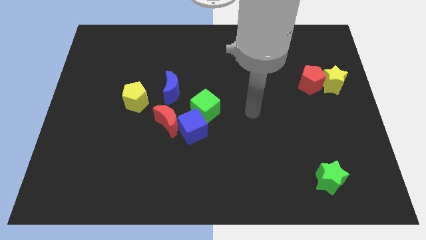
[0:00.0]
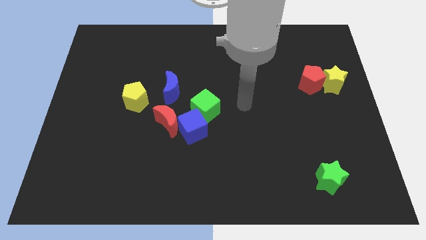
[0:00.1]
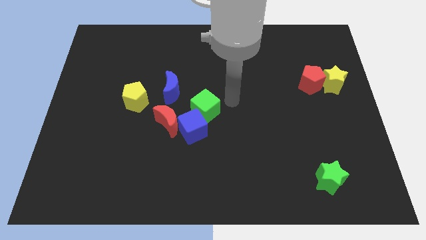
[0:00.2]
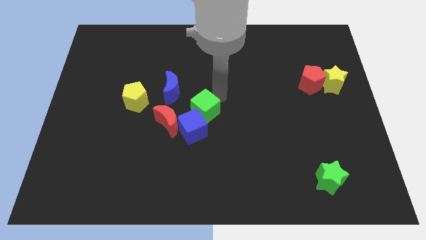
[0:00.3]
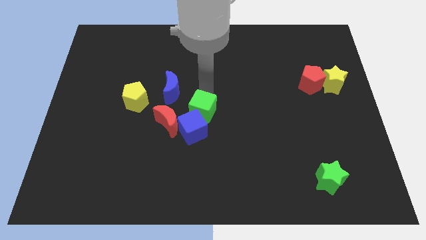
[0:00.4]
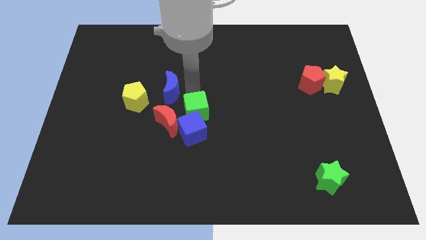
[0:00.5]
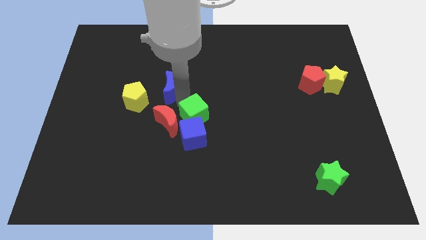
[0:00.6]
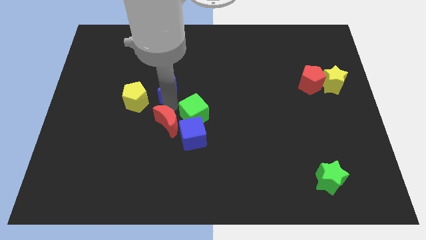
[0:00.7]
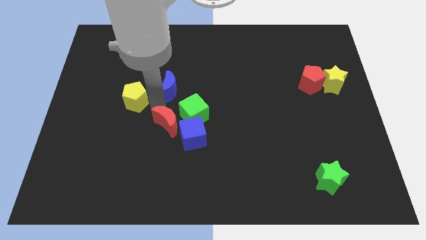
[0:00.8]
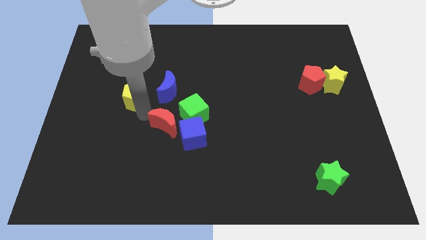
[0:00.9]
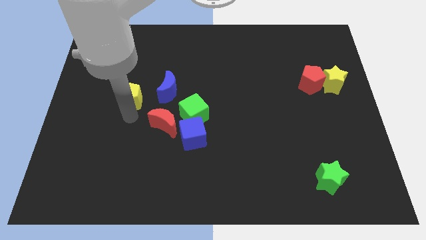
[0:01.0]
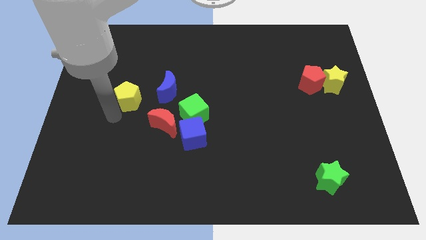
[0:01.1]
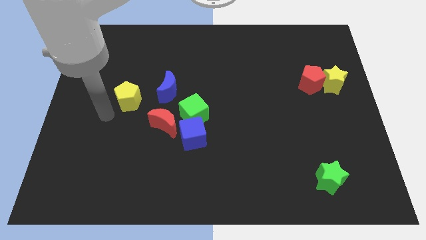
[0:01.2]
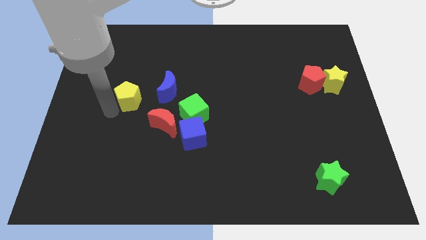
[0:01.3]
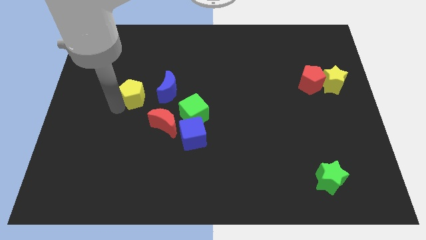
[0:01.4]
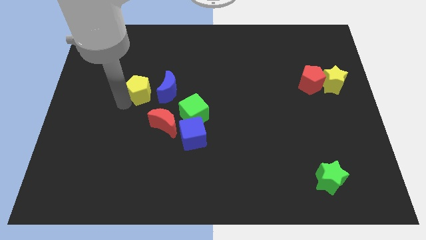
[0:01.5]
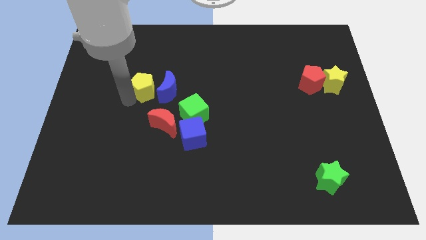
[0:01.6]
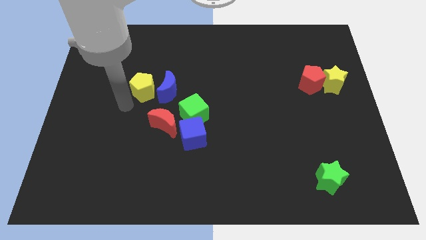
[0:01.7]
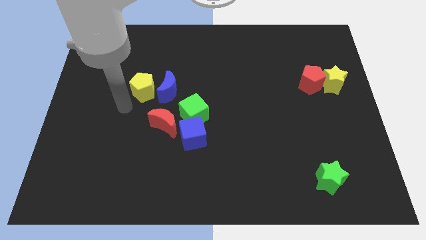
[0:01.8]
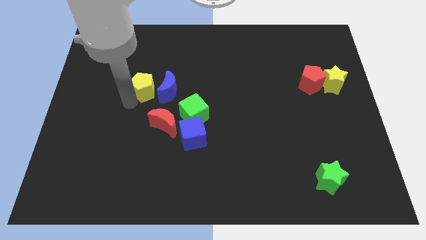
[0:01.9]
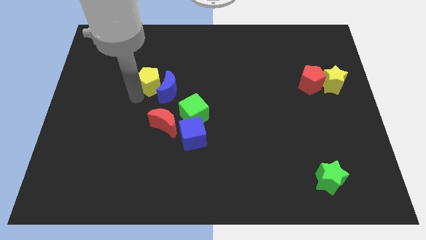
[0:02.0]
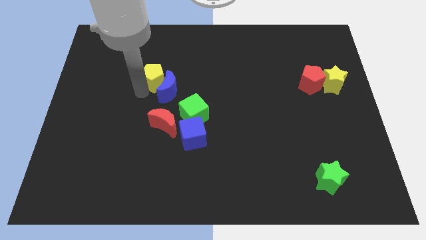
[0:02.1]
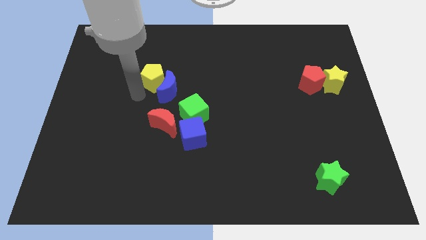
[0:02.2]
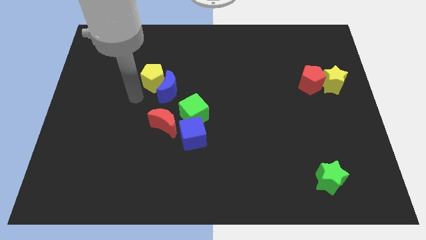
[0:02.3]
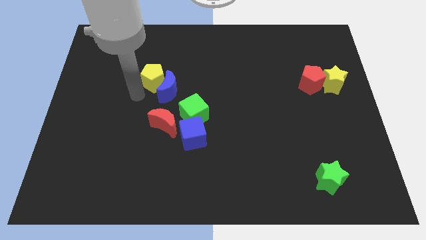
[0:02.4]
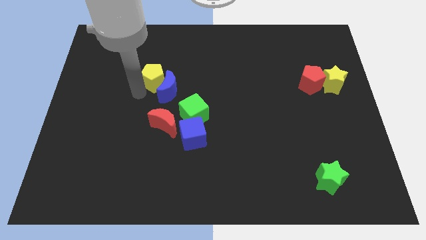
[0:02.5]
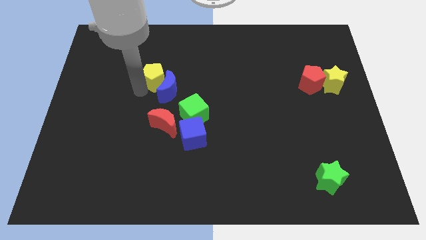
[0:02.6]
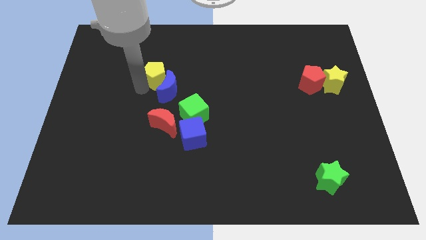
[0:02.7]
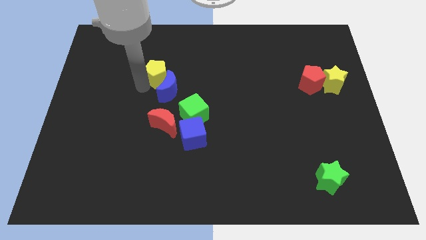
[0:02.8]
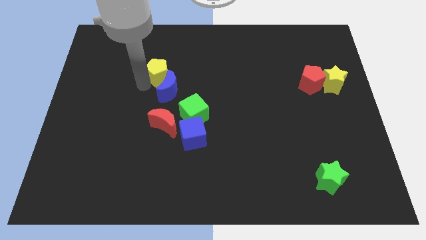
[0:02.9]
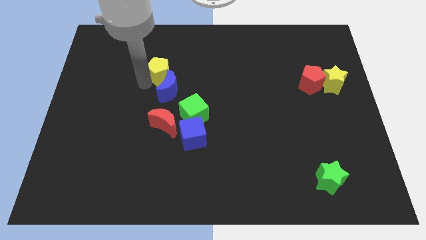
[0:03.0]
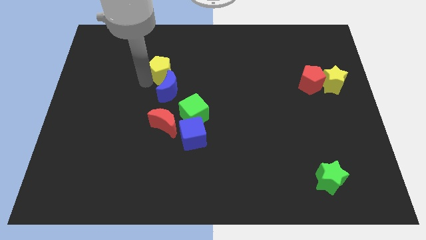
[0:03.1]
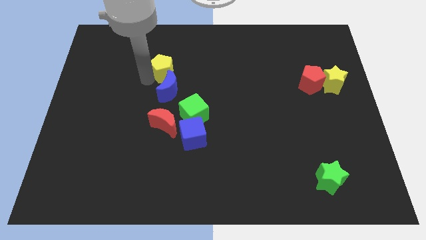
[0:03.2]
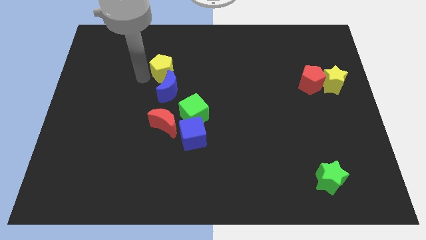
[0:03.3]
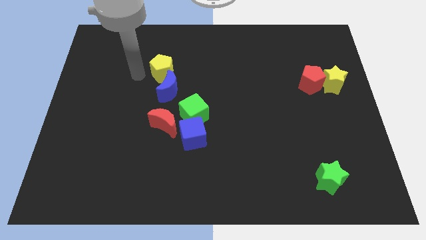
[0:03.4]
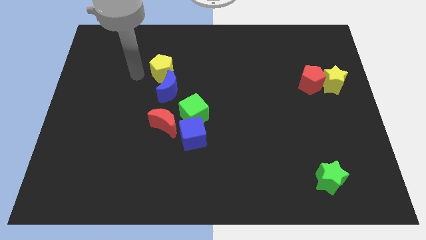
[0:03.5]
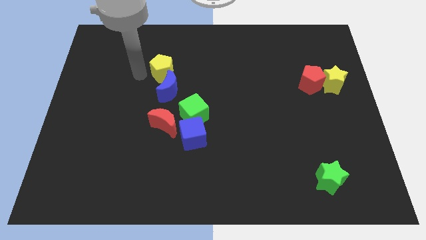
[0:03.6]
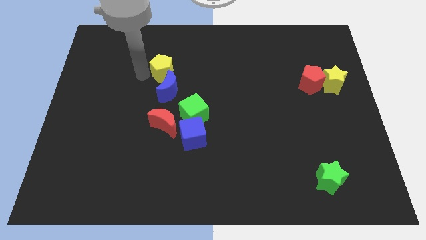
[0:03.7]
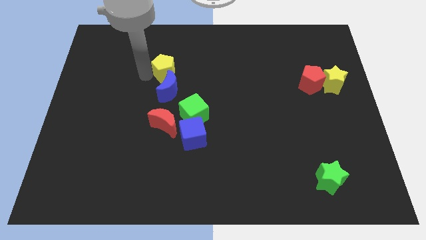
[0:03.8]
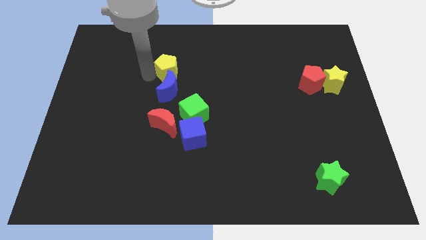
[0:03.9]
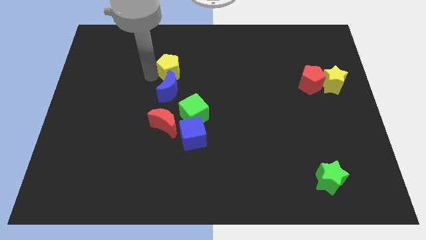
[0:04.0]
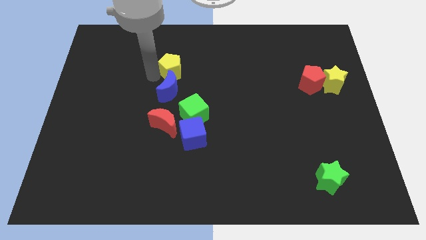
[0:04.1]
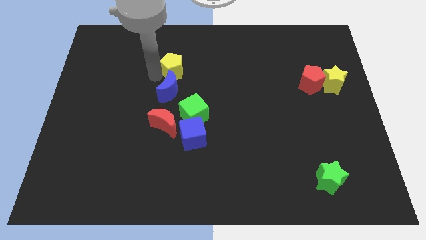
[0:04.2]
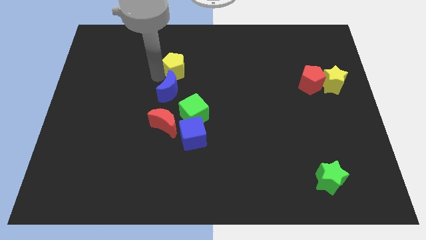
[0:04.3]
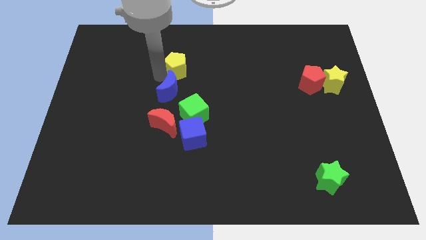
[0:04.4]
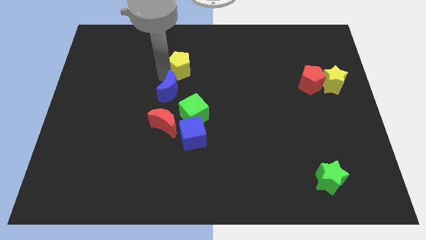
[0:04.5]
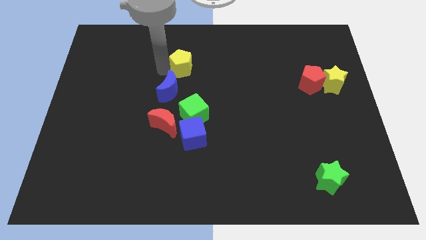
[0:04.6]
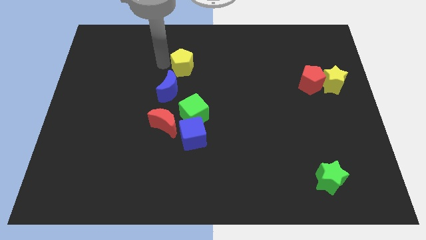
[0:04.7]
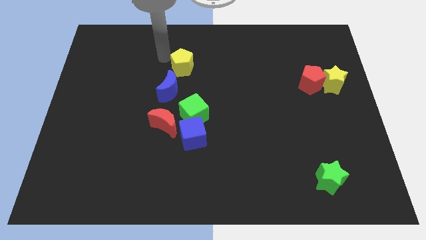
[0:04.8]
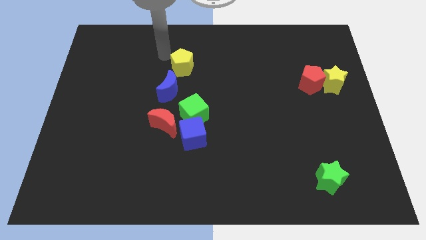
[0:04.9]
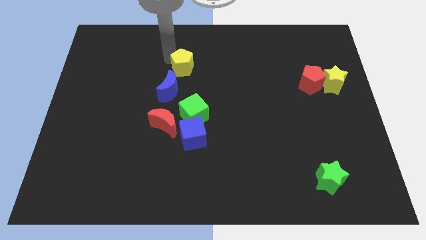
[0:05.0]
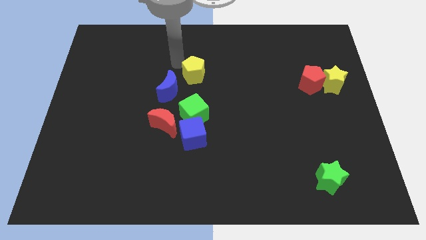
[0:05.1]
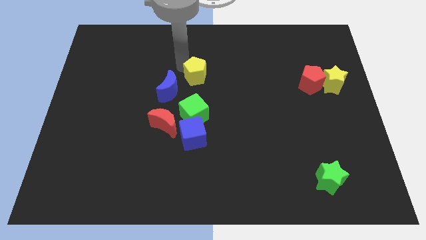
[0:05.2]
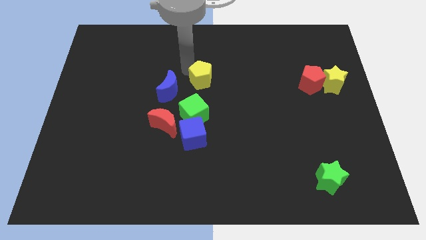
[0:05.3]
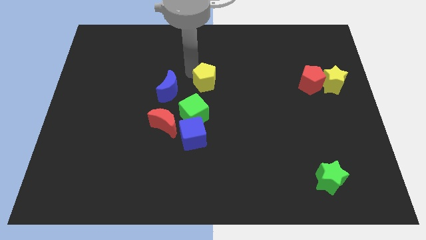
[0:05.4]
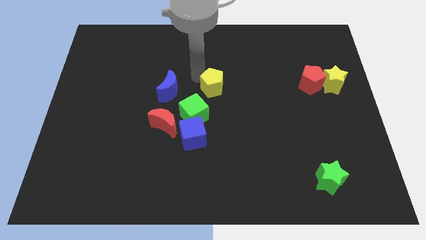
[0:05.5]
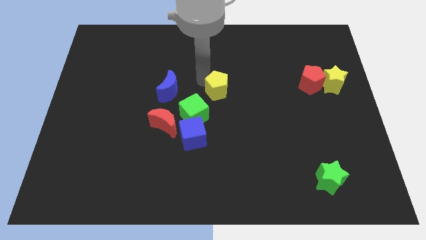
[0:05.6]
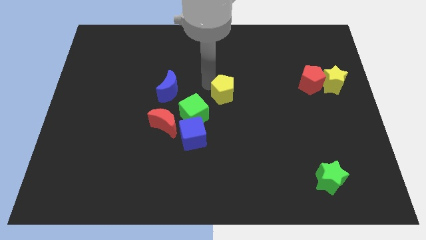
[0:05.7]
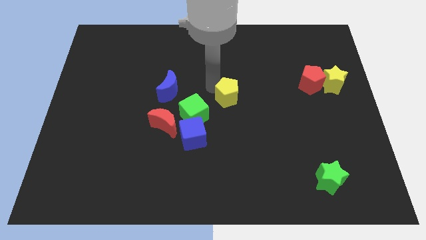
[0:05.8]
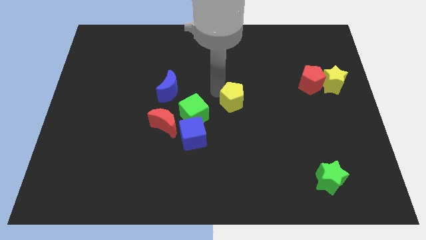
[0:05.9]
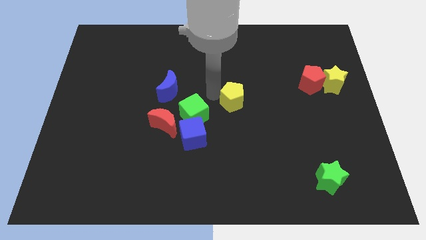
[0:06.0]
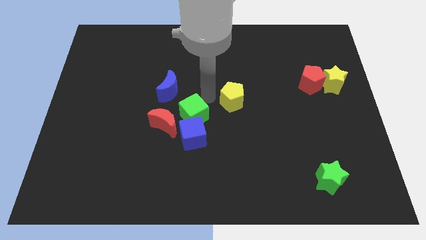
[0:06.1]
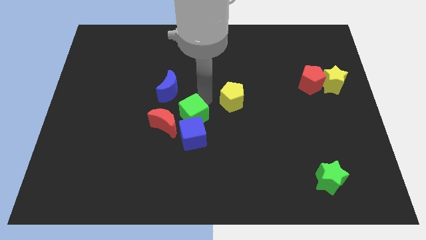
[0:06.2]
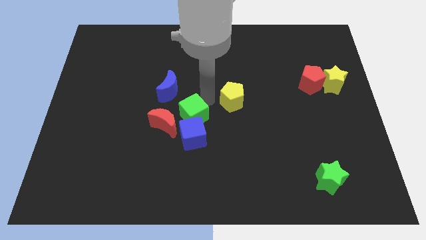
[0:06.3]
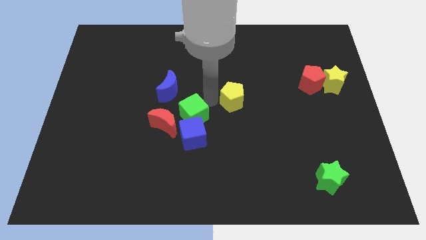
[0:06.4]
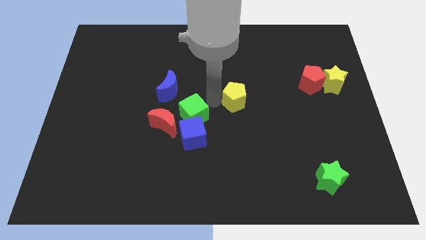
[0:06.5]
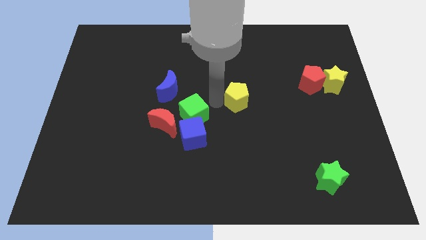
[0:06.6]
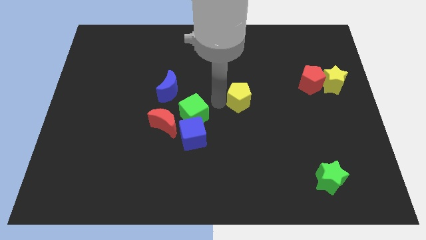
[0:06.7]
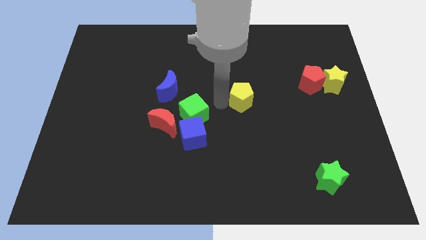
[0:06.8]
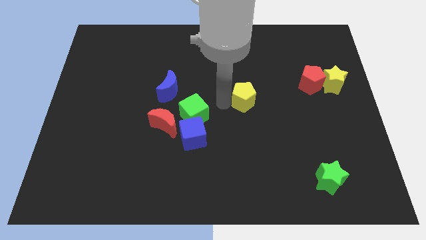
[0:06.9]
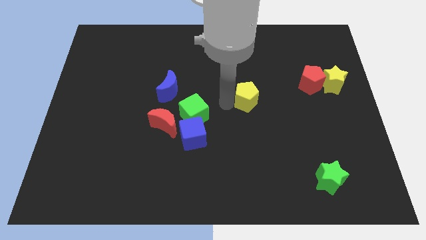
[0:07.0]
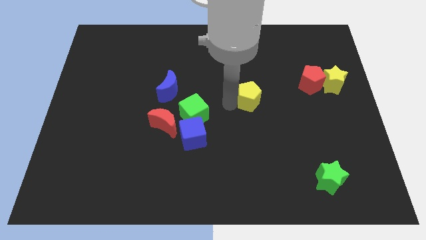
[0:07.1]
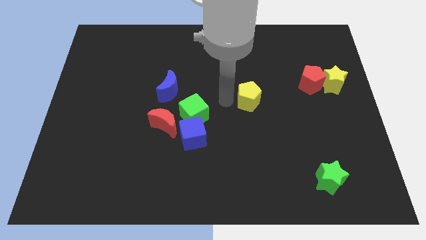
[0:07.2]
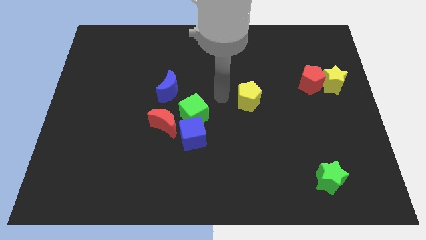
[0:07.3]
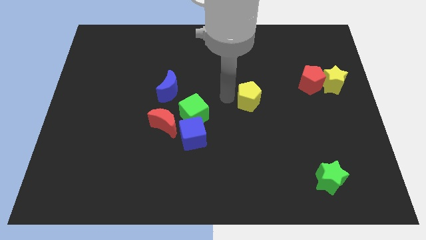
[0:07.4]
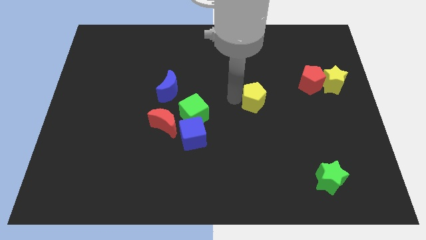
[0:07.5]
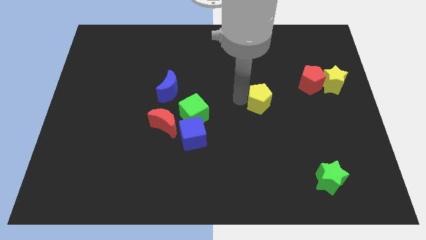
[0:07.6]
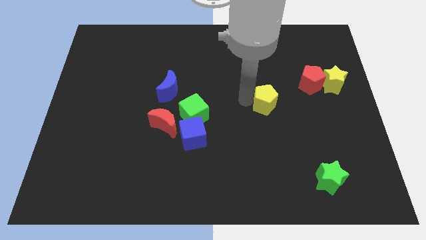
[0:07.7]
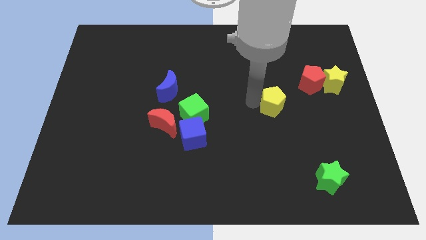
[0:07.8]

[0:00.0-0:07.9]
move the yellow pentagon diagonally down and to the left of the red pentagon
